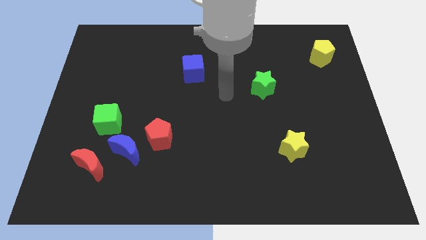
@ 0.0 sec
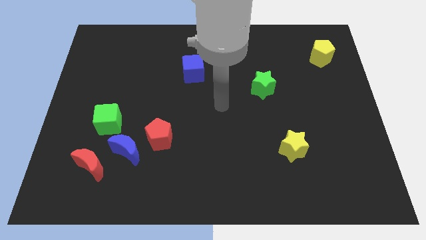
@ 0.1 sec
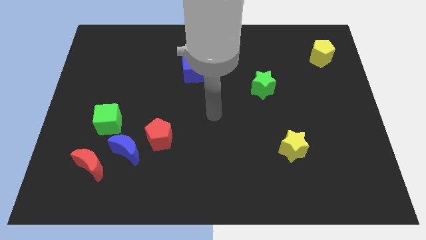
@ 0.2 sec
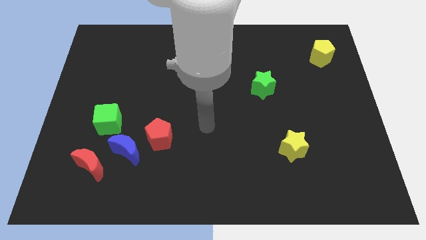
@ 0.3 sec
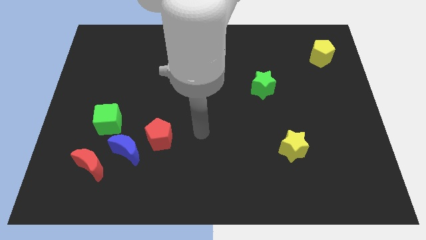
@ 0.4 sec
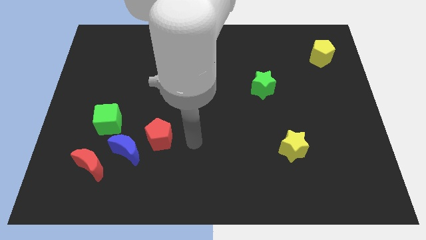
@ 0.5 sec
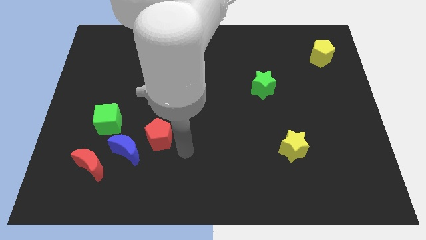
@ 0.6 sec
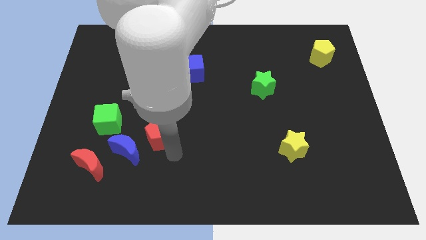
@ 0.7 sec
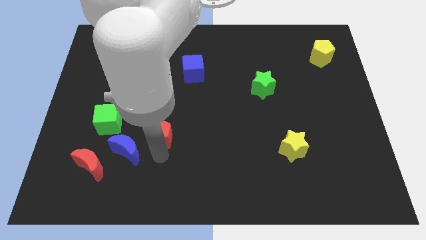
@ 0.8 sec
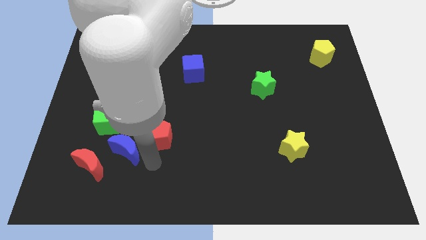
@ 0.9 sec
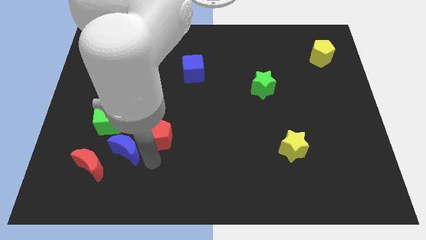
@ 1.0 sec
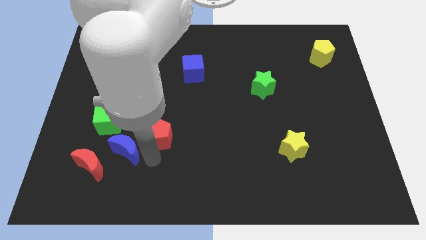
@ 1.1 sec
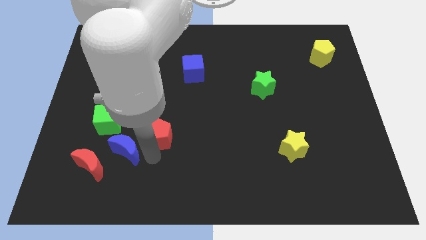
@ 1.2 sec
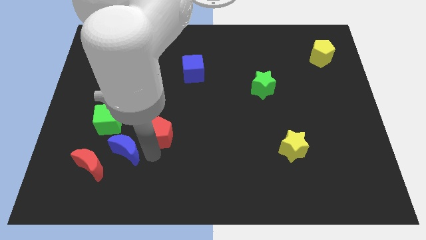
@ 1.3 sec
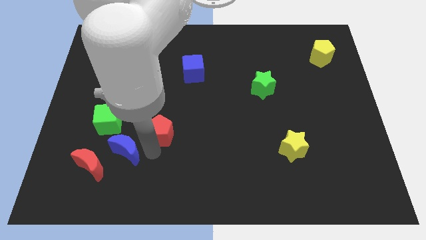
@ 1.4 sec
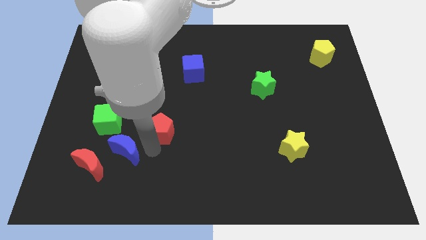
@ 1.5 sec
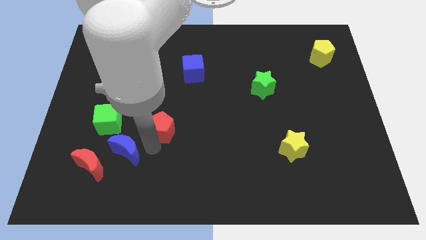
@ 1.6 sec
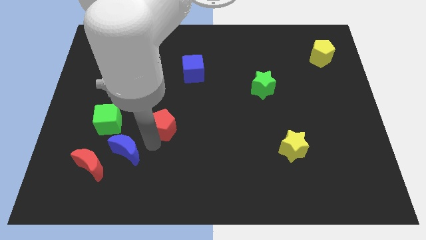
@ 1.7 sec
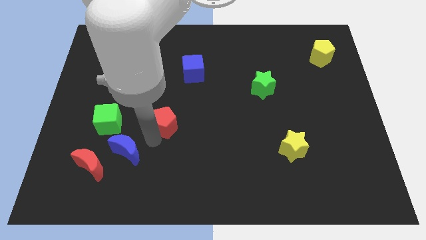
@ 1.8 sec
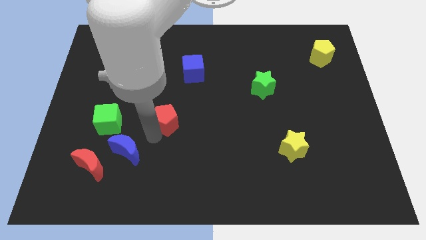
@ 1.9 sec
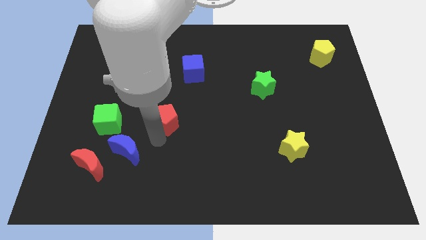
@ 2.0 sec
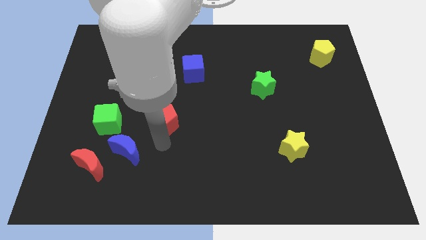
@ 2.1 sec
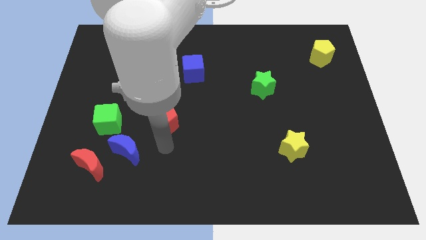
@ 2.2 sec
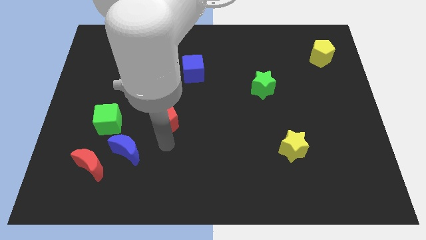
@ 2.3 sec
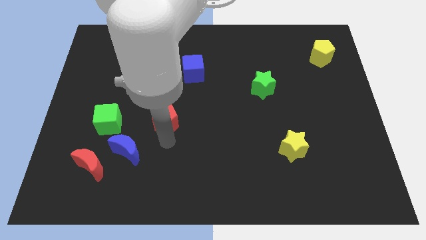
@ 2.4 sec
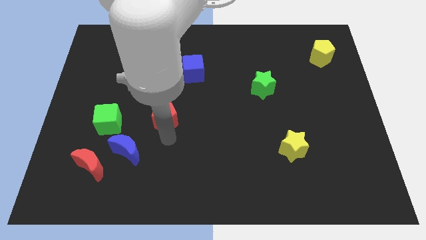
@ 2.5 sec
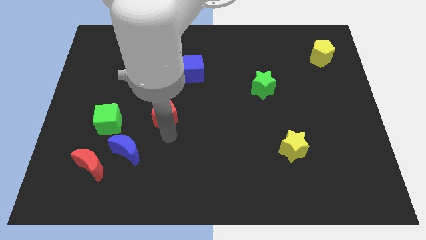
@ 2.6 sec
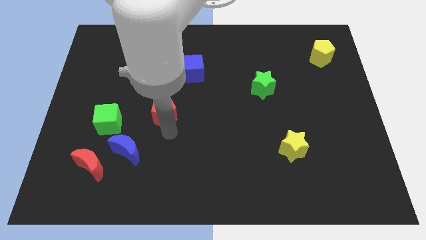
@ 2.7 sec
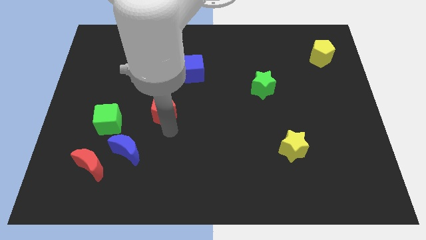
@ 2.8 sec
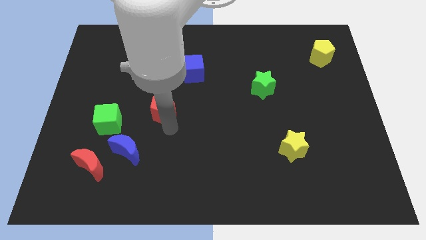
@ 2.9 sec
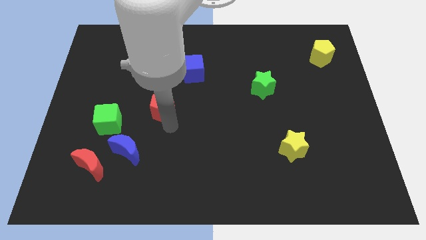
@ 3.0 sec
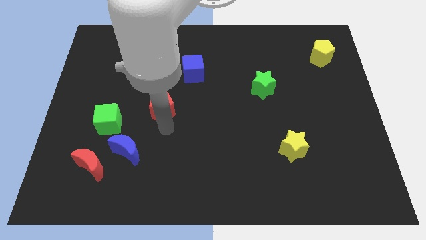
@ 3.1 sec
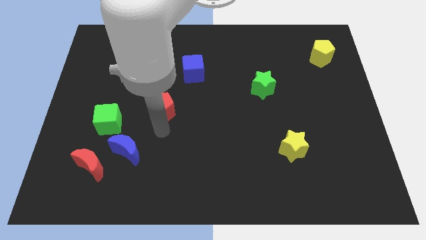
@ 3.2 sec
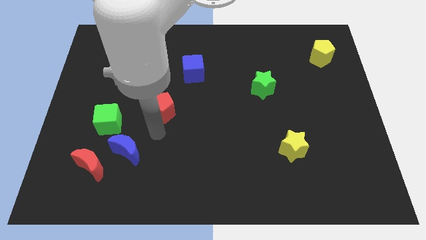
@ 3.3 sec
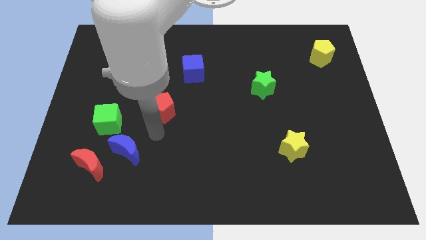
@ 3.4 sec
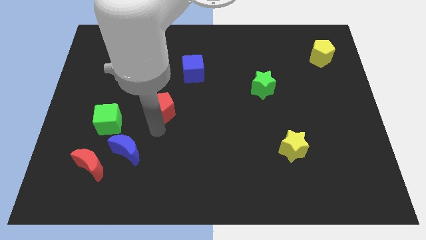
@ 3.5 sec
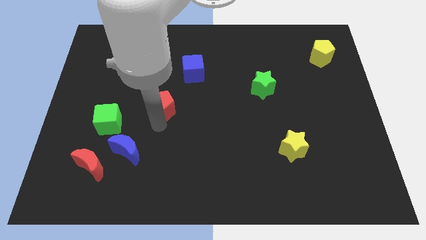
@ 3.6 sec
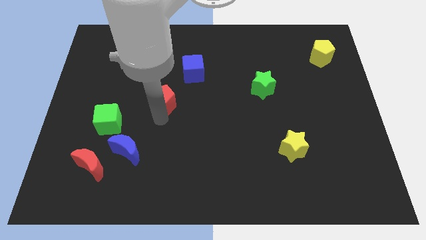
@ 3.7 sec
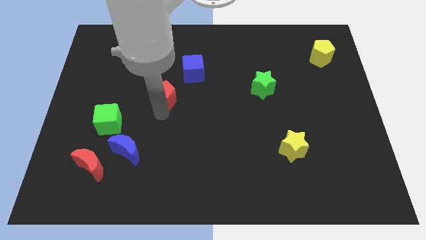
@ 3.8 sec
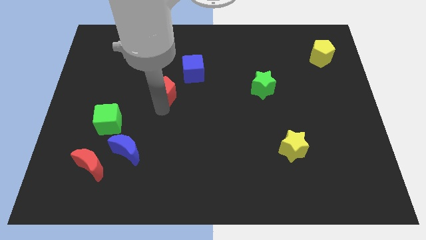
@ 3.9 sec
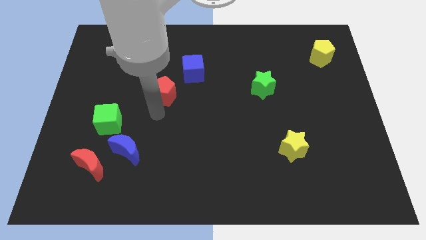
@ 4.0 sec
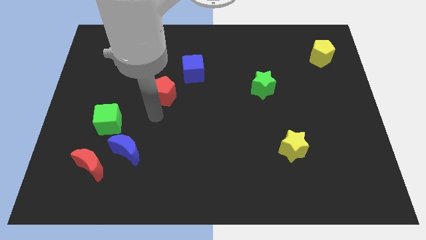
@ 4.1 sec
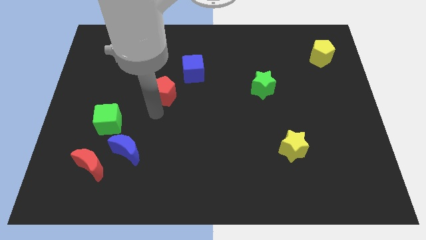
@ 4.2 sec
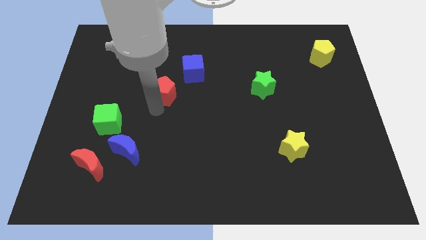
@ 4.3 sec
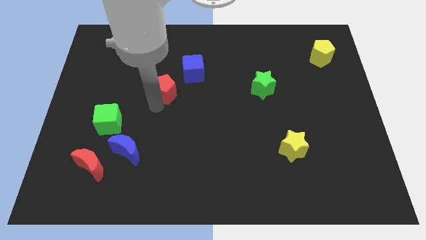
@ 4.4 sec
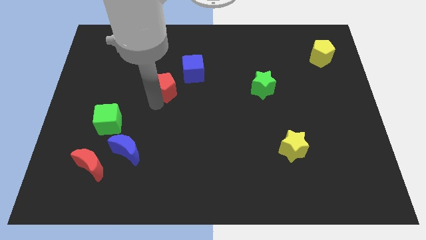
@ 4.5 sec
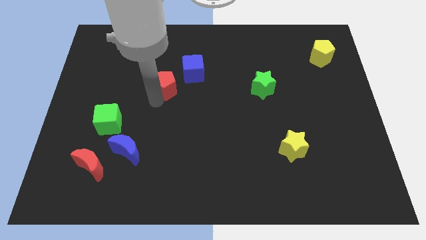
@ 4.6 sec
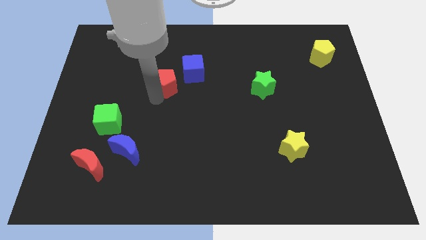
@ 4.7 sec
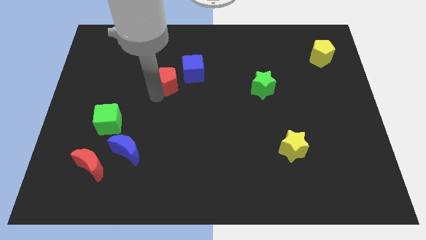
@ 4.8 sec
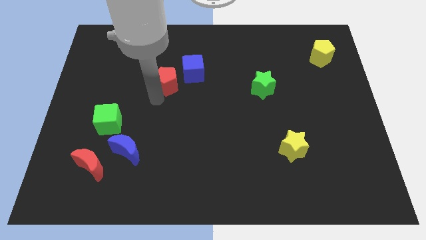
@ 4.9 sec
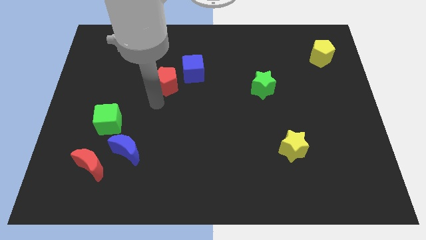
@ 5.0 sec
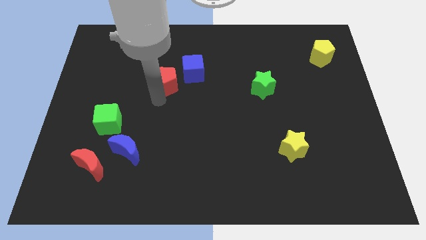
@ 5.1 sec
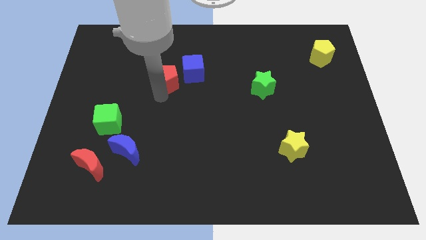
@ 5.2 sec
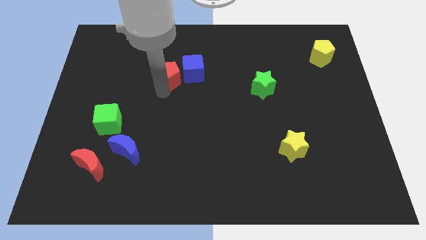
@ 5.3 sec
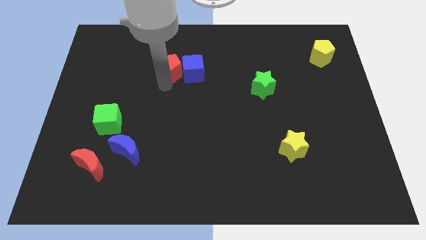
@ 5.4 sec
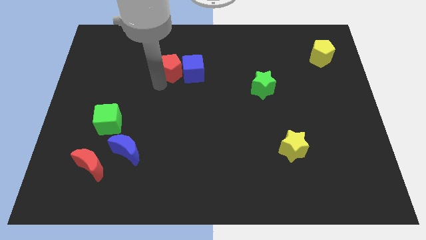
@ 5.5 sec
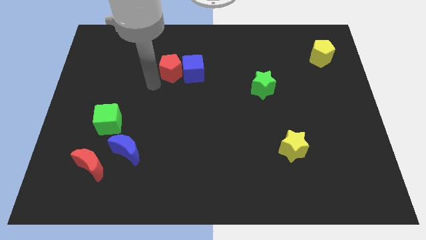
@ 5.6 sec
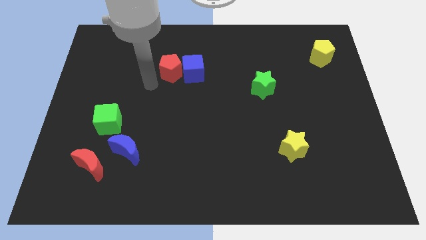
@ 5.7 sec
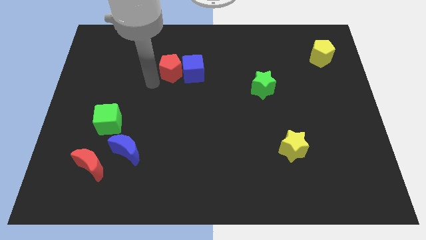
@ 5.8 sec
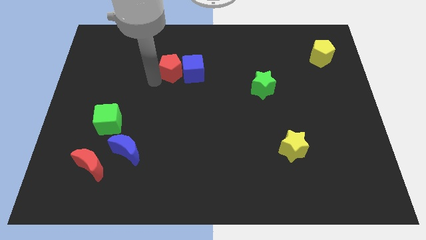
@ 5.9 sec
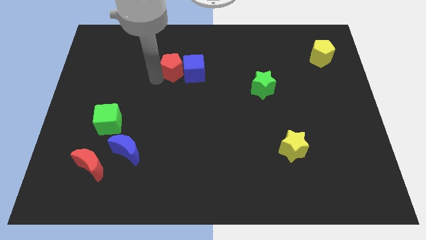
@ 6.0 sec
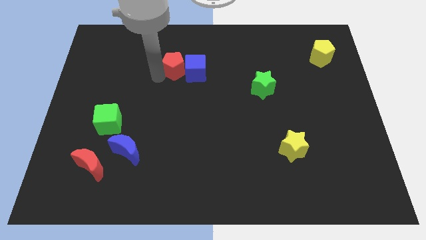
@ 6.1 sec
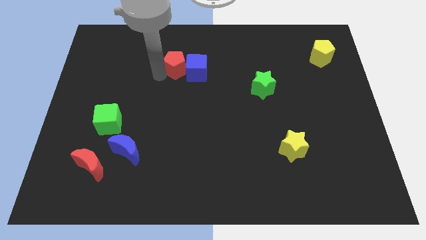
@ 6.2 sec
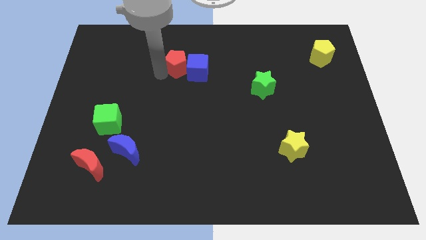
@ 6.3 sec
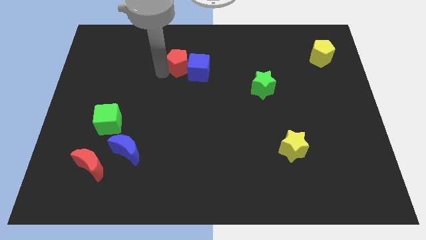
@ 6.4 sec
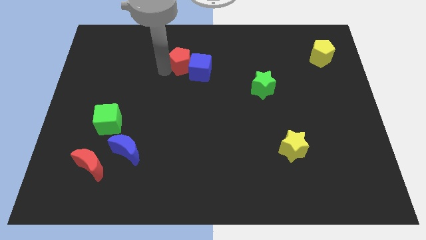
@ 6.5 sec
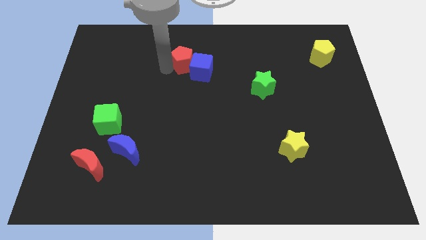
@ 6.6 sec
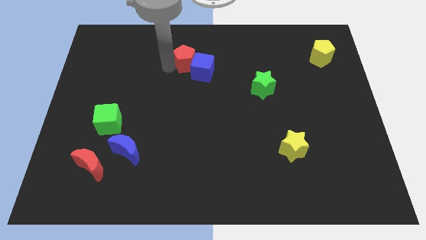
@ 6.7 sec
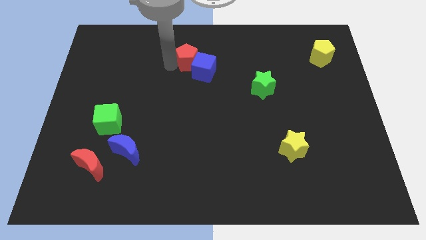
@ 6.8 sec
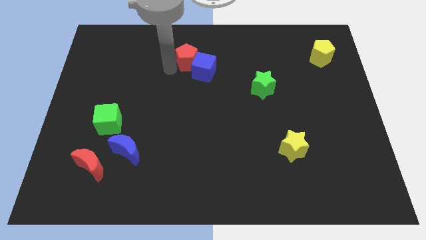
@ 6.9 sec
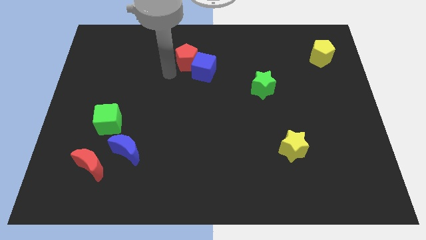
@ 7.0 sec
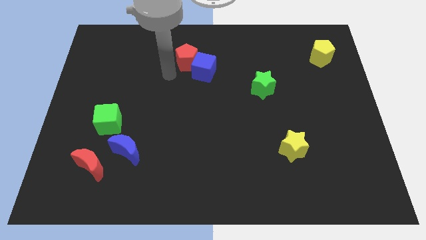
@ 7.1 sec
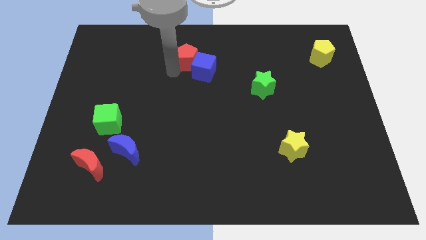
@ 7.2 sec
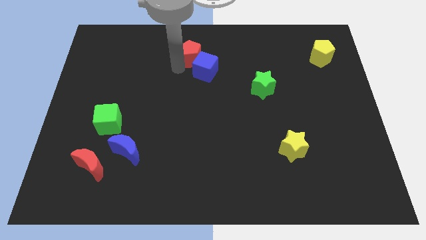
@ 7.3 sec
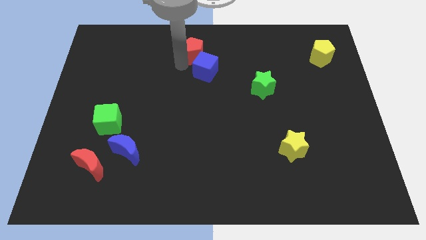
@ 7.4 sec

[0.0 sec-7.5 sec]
put the red pentagon to the top

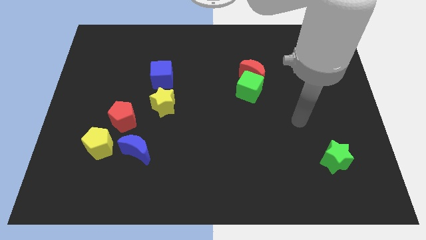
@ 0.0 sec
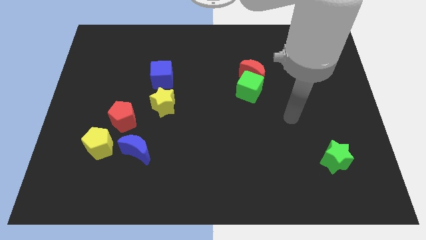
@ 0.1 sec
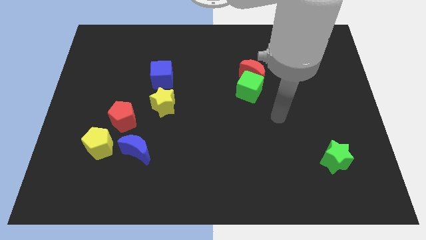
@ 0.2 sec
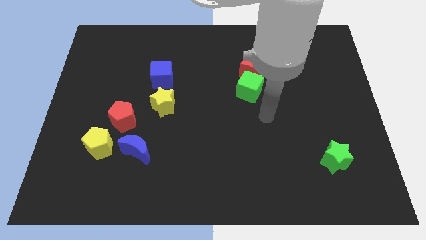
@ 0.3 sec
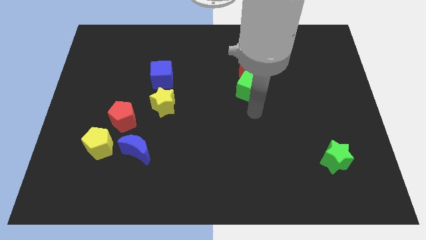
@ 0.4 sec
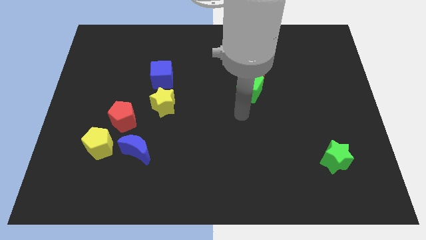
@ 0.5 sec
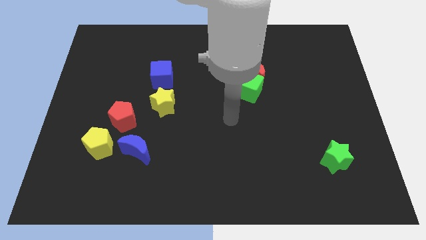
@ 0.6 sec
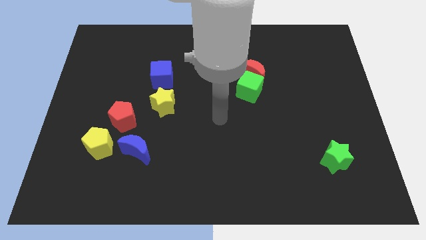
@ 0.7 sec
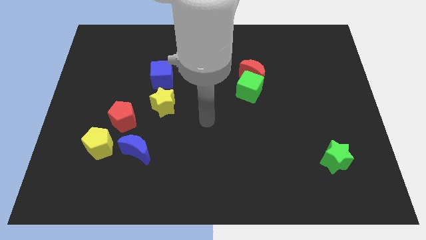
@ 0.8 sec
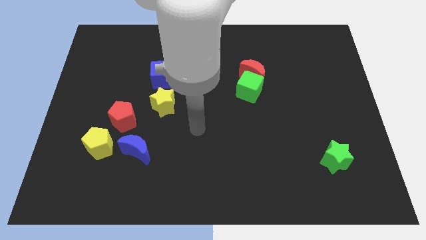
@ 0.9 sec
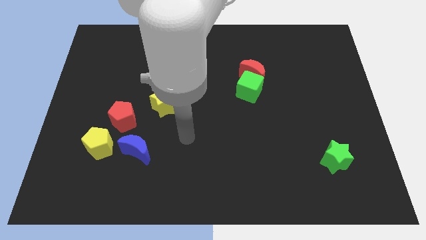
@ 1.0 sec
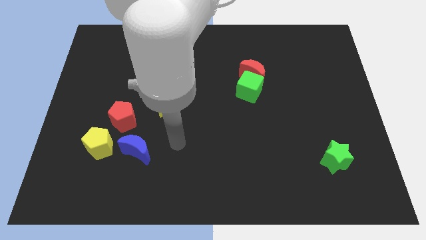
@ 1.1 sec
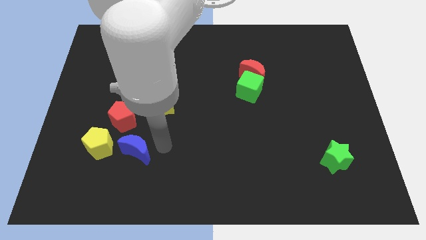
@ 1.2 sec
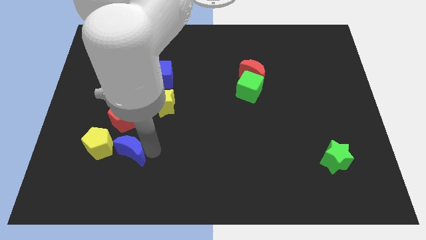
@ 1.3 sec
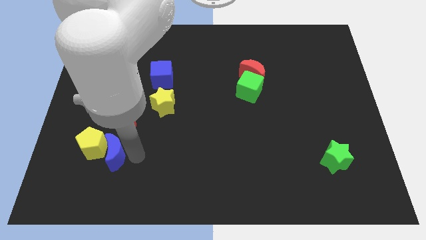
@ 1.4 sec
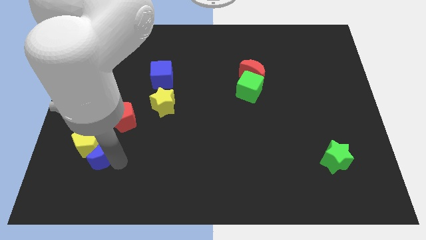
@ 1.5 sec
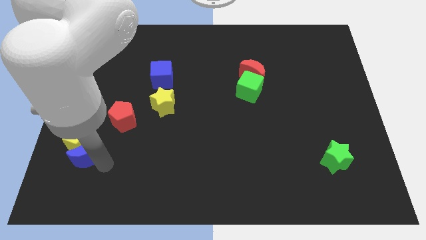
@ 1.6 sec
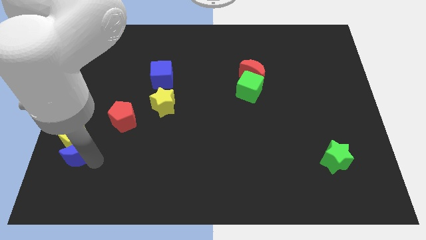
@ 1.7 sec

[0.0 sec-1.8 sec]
push the yellow pentagon to the center left
